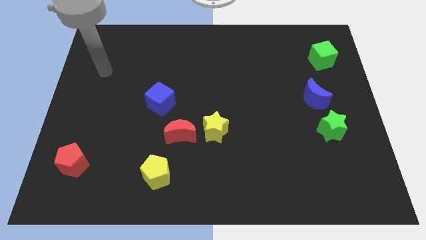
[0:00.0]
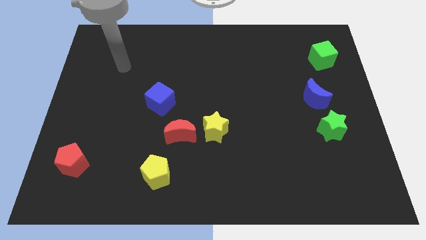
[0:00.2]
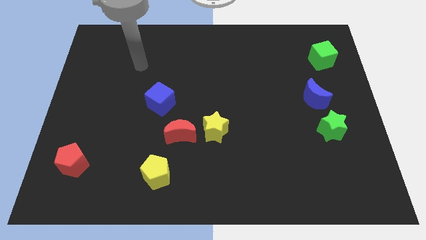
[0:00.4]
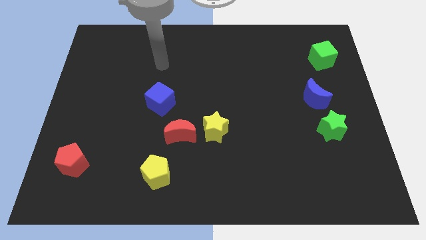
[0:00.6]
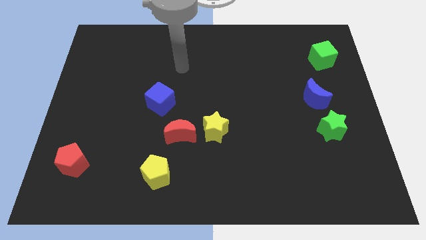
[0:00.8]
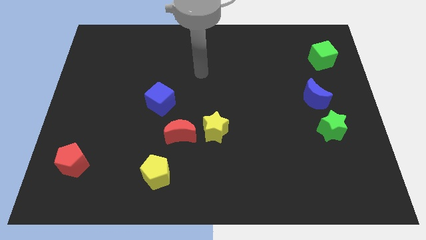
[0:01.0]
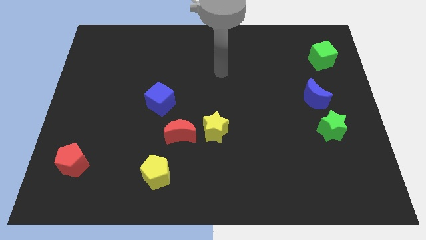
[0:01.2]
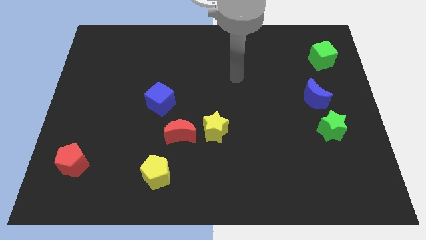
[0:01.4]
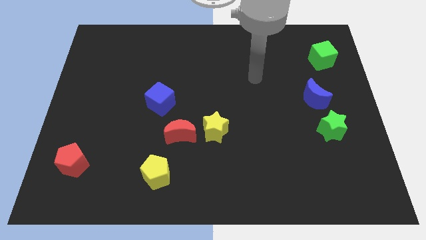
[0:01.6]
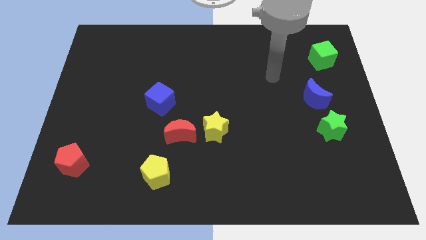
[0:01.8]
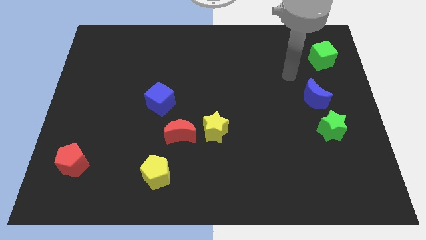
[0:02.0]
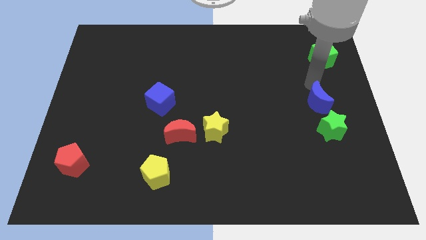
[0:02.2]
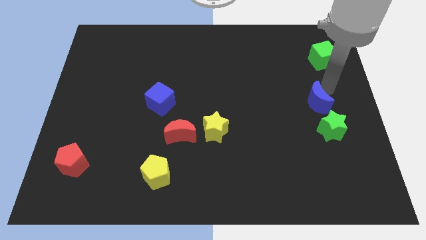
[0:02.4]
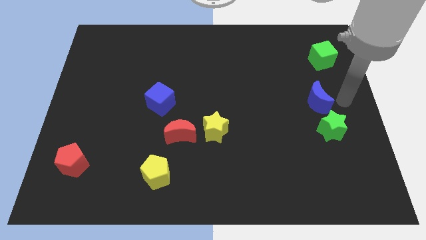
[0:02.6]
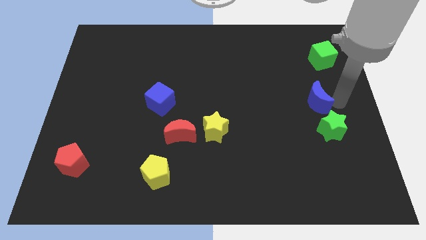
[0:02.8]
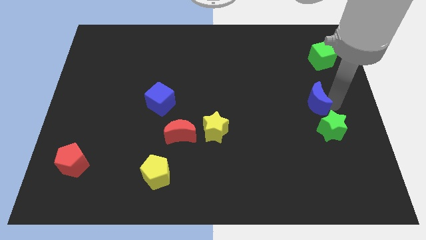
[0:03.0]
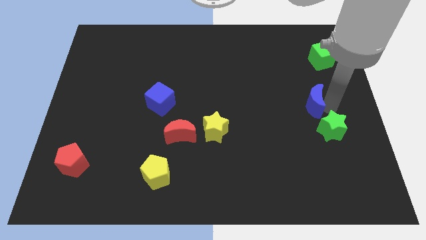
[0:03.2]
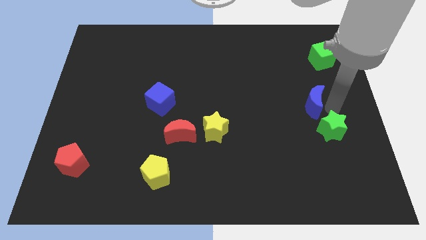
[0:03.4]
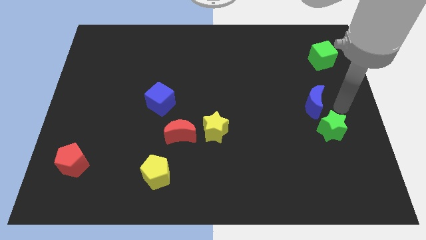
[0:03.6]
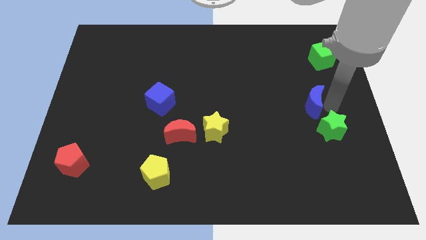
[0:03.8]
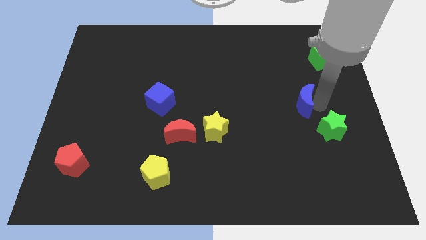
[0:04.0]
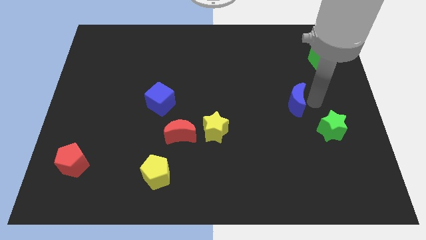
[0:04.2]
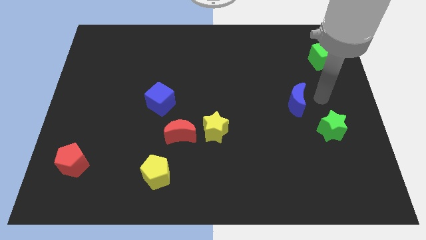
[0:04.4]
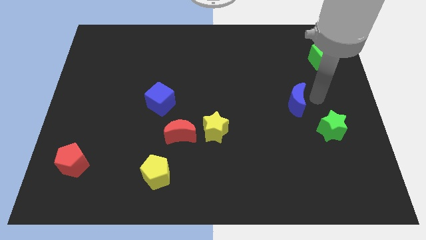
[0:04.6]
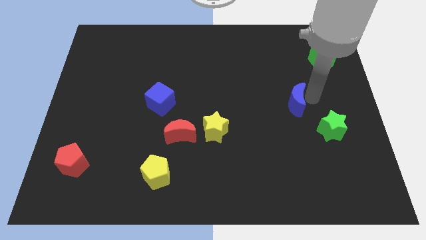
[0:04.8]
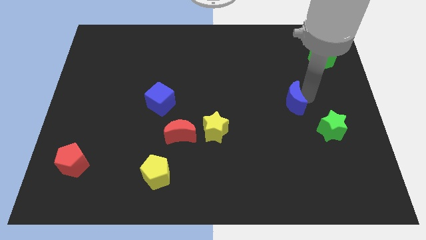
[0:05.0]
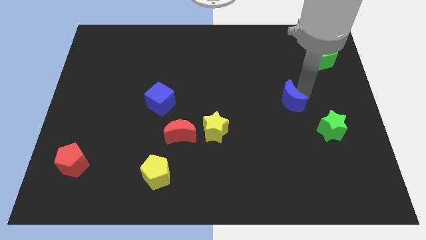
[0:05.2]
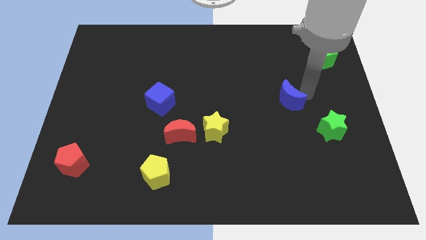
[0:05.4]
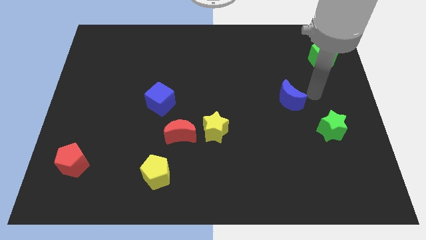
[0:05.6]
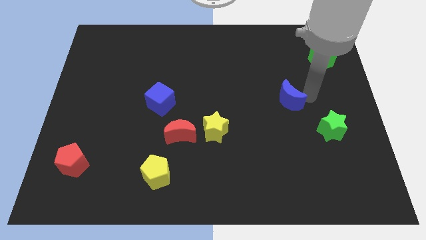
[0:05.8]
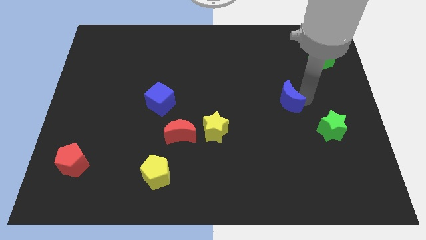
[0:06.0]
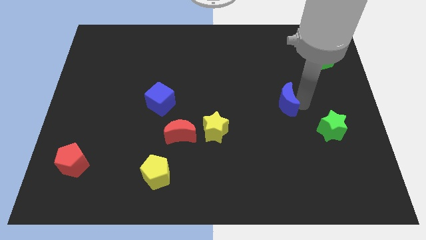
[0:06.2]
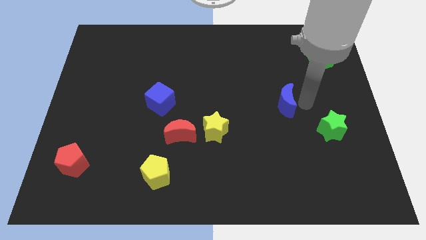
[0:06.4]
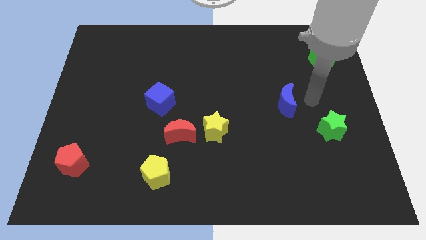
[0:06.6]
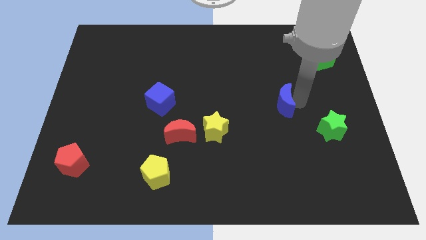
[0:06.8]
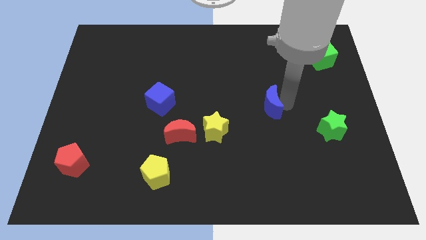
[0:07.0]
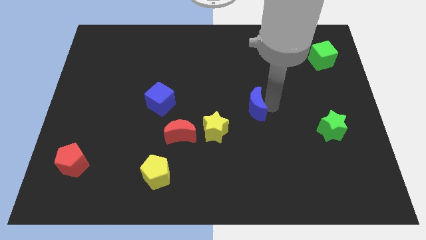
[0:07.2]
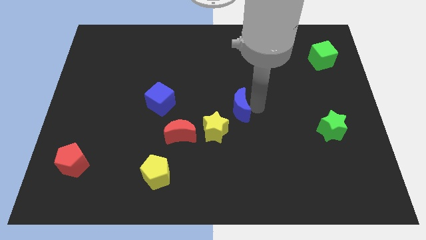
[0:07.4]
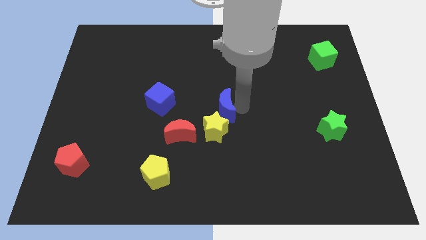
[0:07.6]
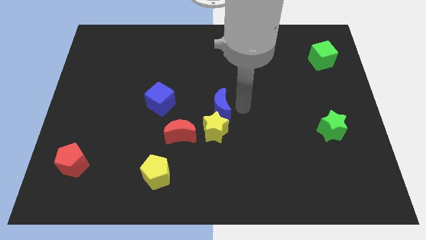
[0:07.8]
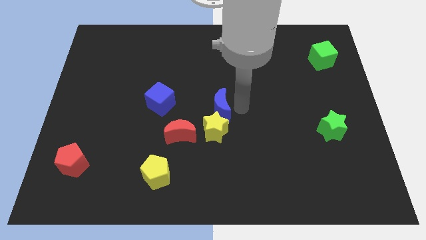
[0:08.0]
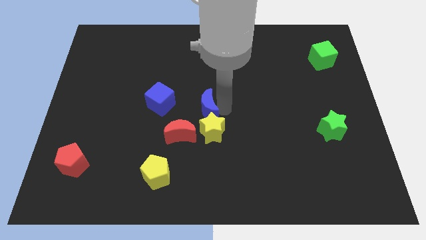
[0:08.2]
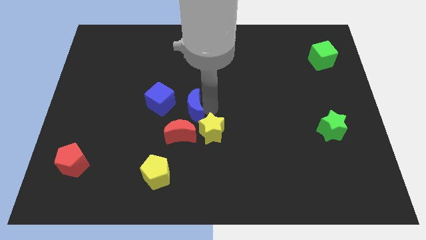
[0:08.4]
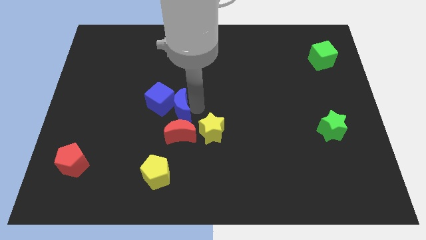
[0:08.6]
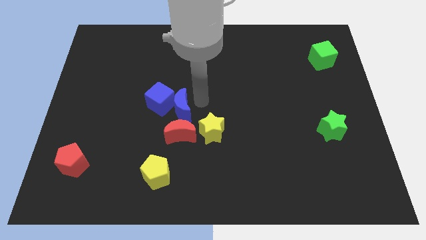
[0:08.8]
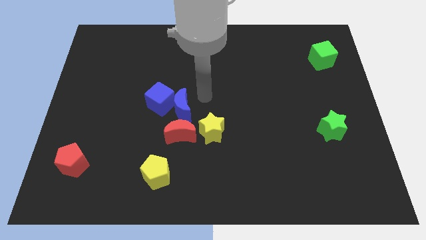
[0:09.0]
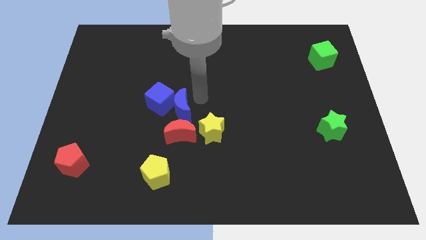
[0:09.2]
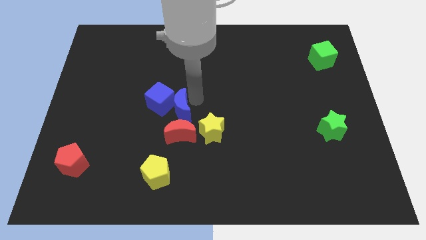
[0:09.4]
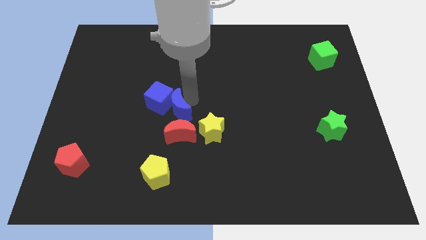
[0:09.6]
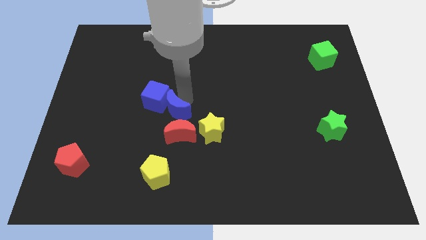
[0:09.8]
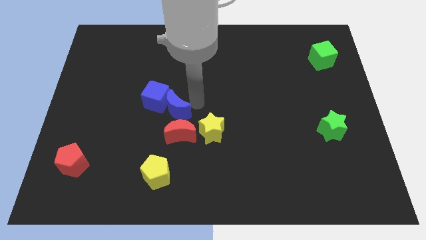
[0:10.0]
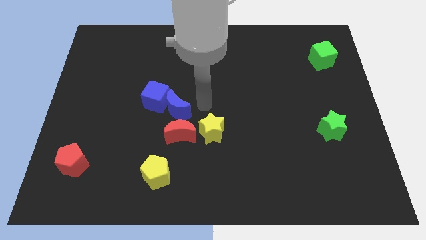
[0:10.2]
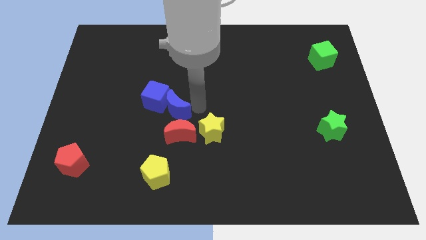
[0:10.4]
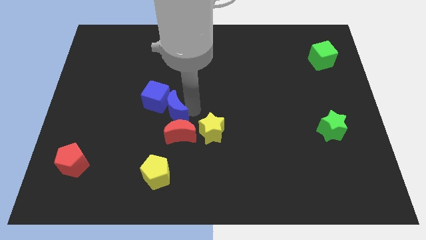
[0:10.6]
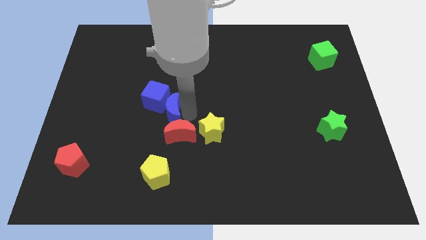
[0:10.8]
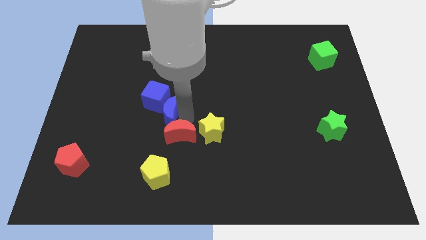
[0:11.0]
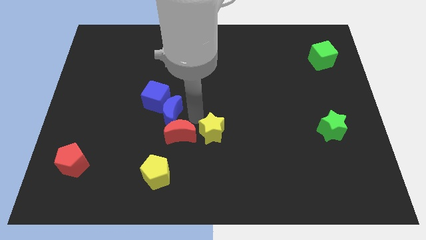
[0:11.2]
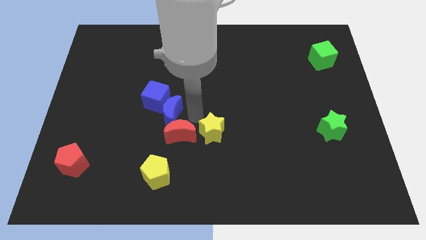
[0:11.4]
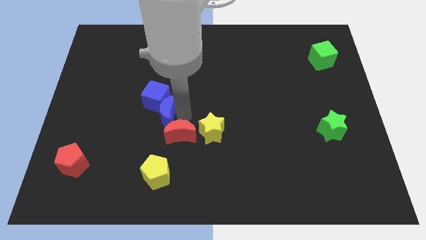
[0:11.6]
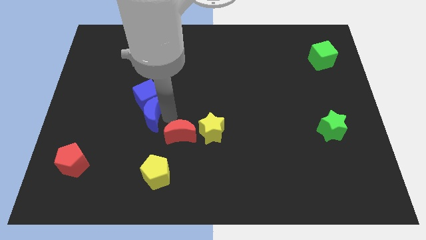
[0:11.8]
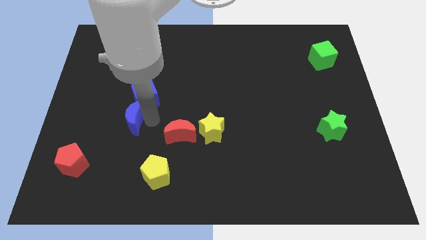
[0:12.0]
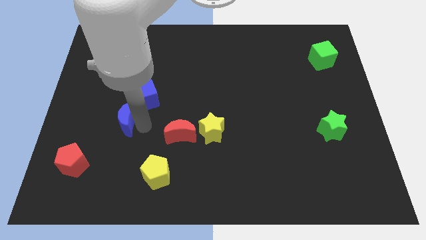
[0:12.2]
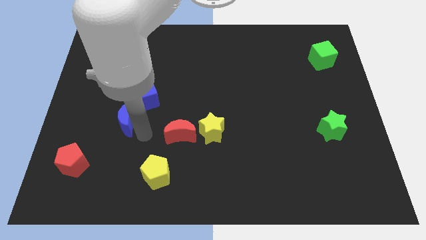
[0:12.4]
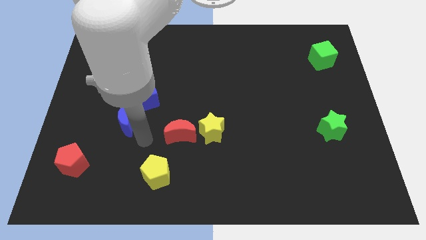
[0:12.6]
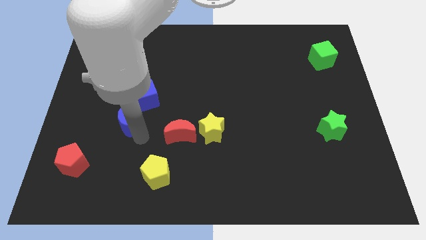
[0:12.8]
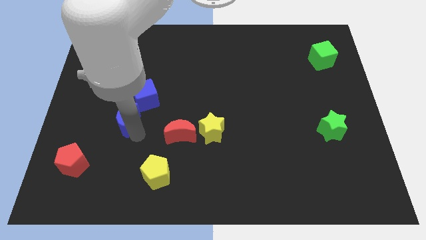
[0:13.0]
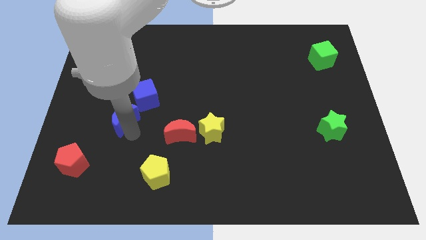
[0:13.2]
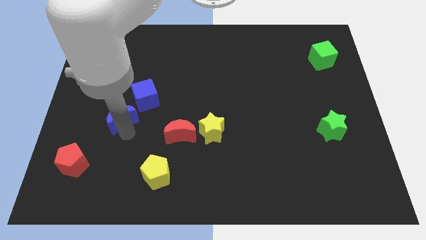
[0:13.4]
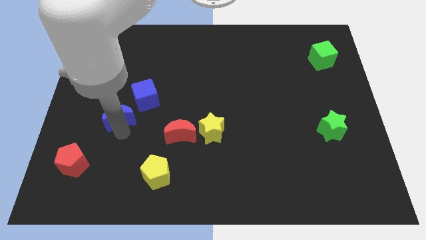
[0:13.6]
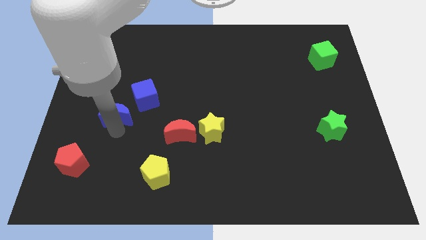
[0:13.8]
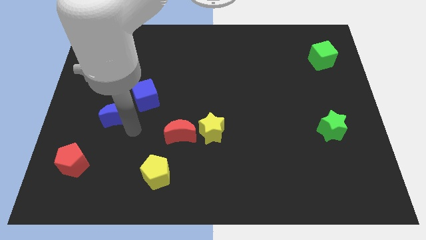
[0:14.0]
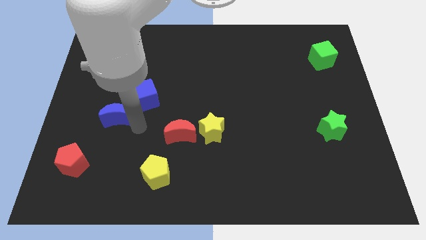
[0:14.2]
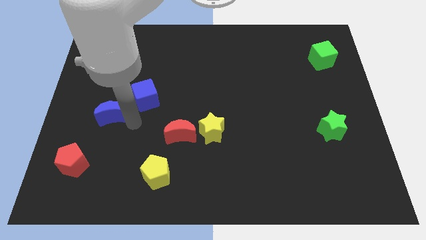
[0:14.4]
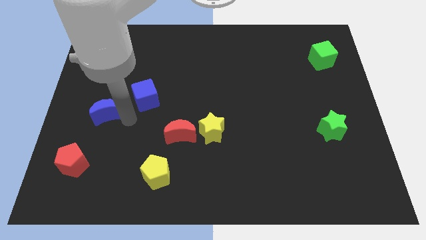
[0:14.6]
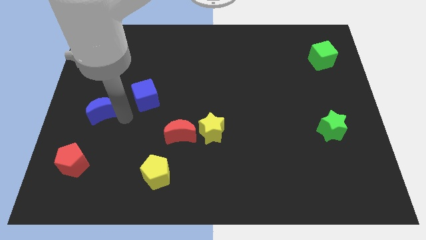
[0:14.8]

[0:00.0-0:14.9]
move the blue moon to the left side of the board

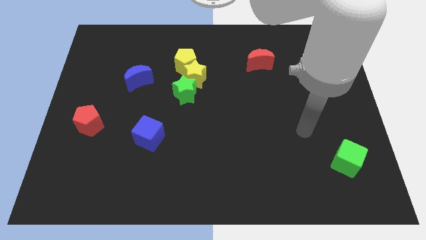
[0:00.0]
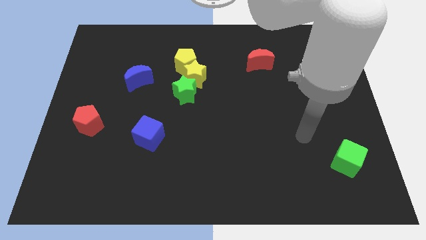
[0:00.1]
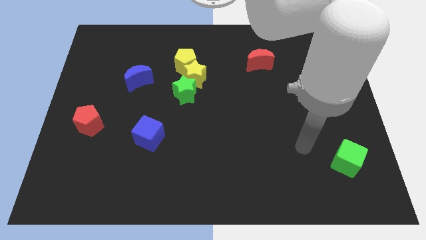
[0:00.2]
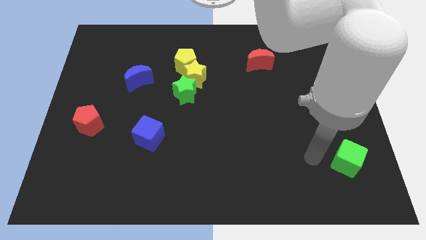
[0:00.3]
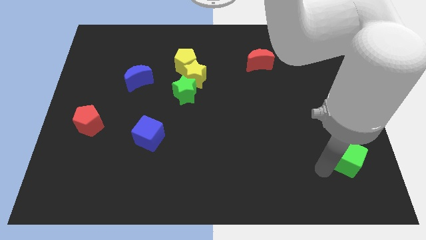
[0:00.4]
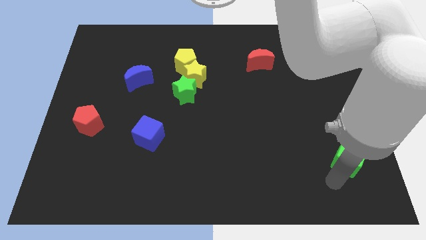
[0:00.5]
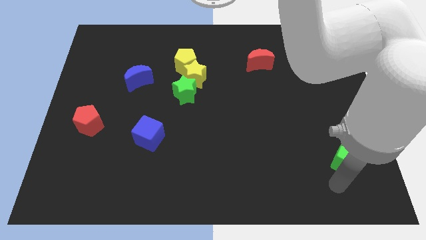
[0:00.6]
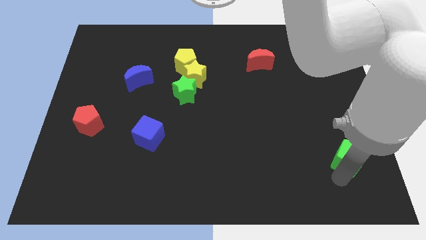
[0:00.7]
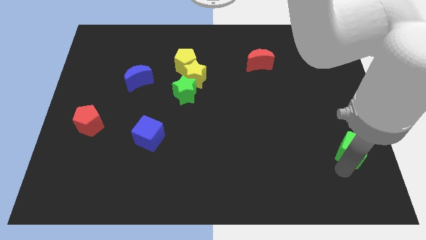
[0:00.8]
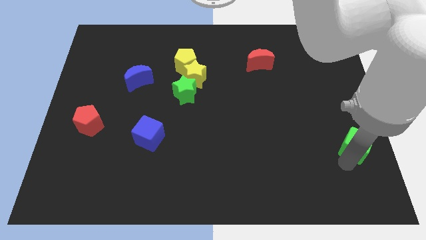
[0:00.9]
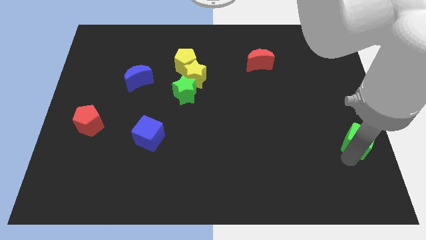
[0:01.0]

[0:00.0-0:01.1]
put the green cube to the right side of the board
